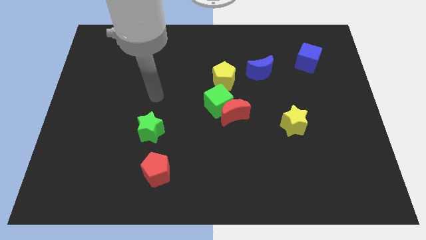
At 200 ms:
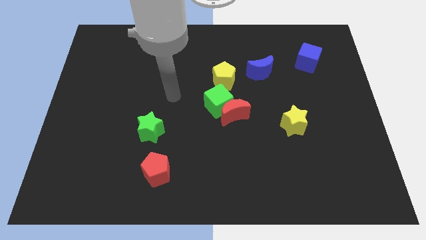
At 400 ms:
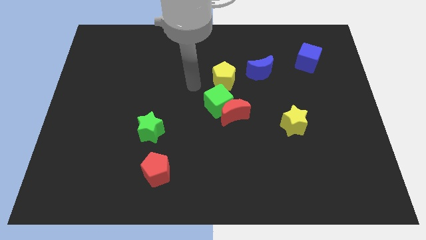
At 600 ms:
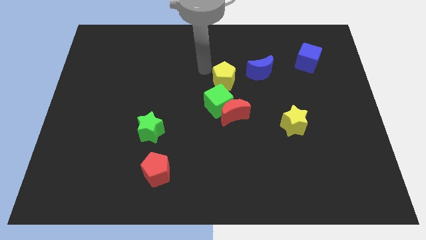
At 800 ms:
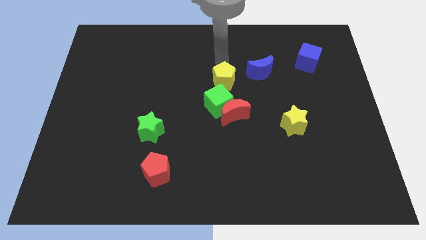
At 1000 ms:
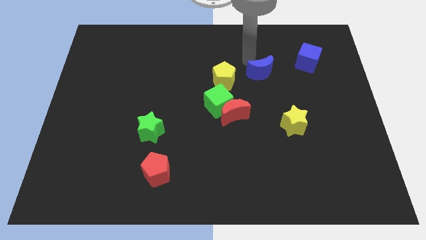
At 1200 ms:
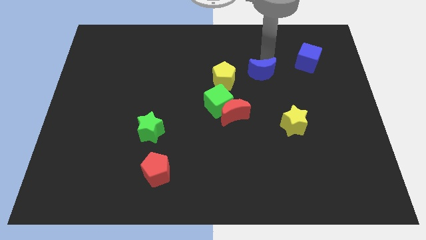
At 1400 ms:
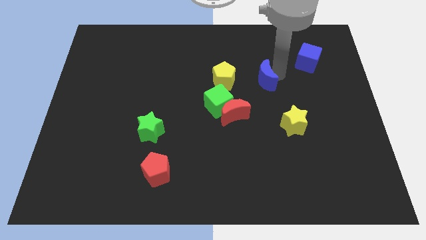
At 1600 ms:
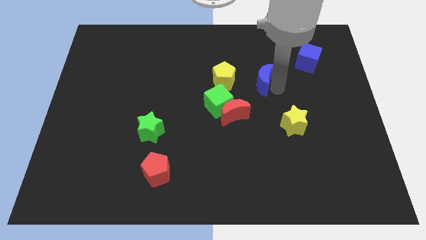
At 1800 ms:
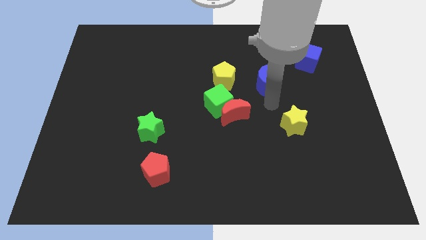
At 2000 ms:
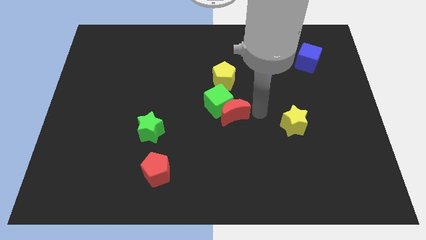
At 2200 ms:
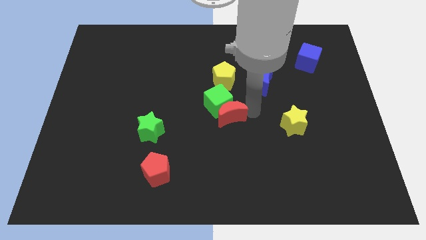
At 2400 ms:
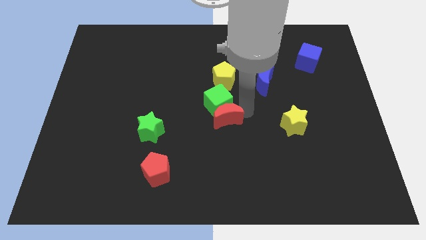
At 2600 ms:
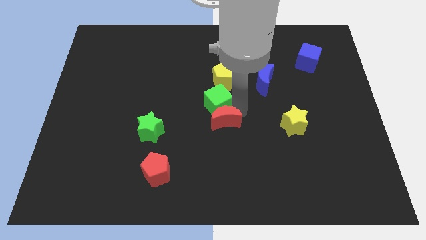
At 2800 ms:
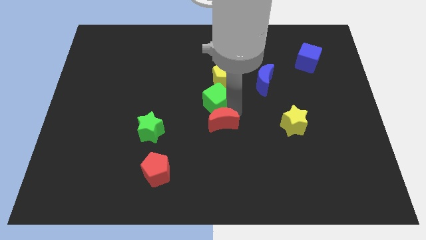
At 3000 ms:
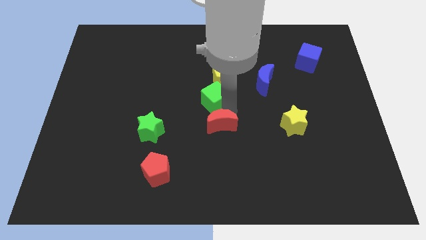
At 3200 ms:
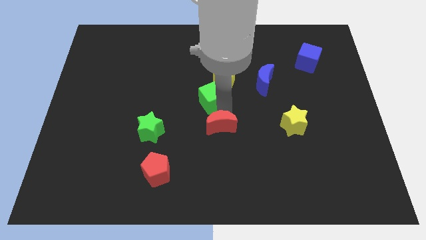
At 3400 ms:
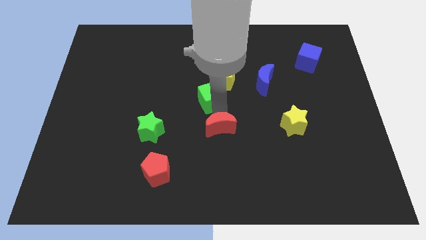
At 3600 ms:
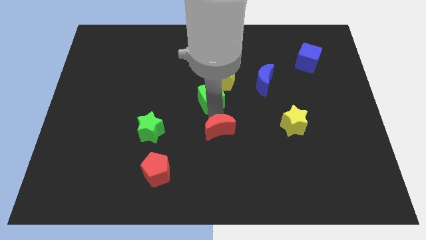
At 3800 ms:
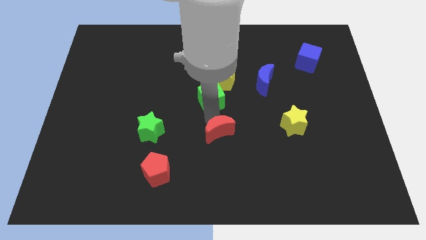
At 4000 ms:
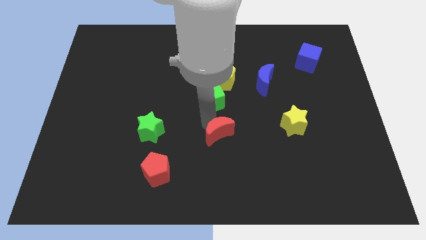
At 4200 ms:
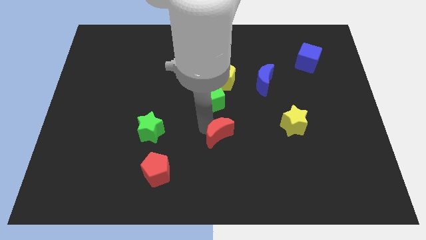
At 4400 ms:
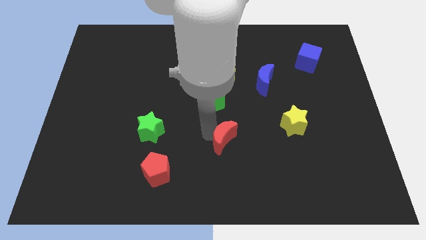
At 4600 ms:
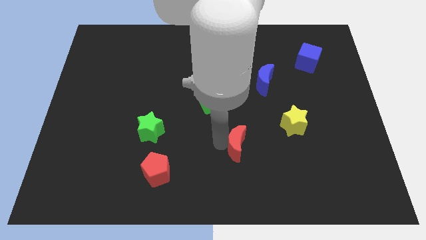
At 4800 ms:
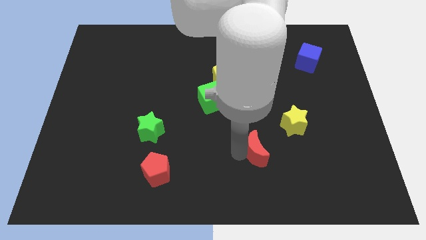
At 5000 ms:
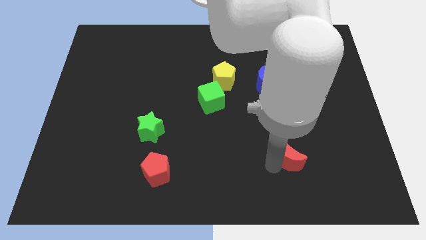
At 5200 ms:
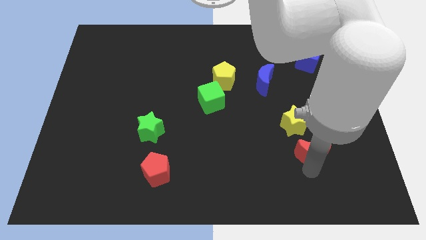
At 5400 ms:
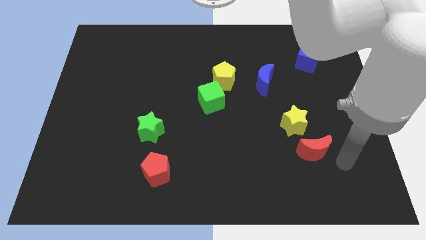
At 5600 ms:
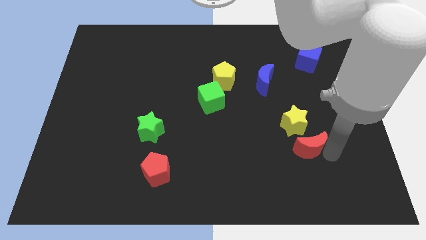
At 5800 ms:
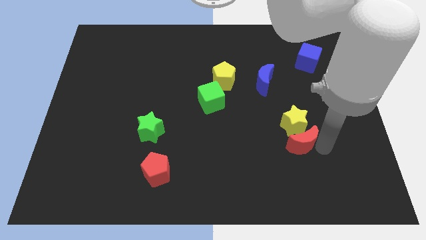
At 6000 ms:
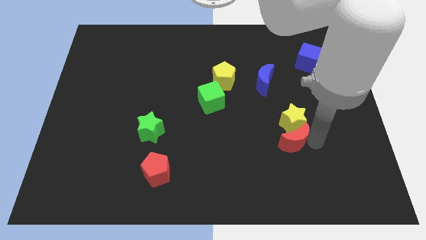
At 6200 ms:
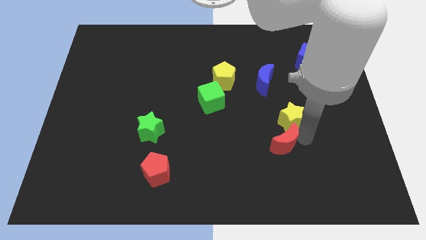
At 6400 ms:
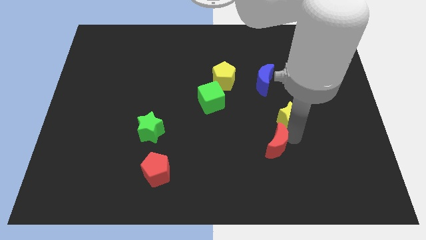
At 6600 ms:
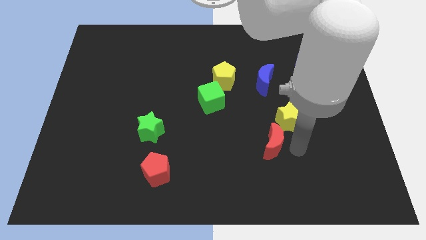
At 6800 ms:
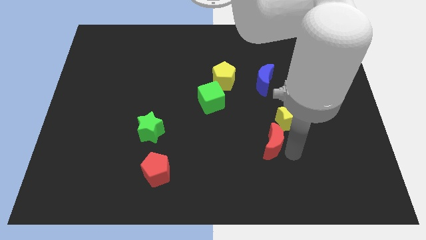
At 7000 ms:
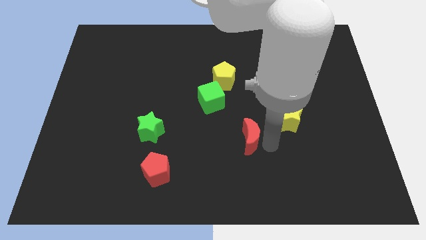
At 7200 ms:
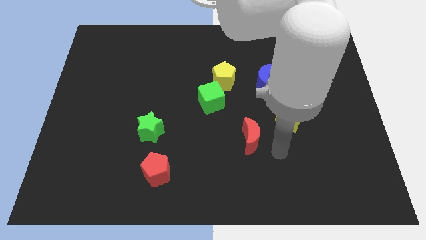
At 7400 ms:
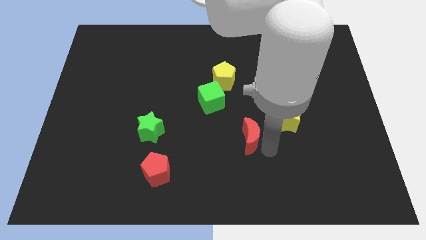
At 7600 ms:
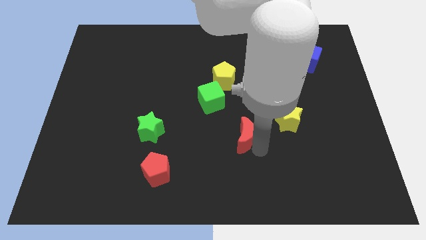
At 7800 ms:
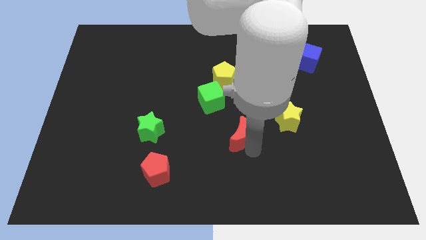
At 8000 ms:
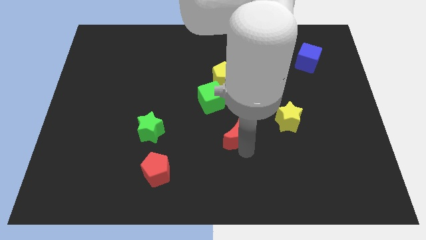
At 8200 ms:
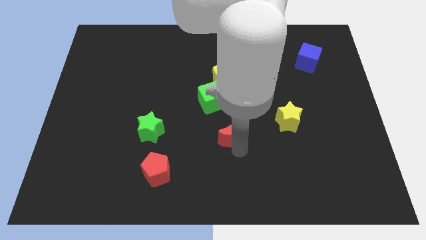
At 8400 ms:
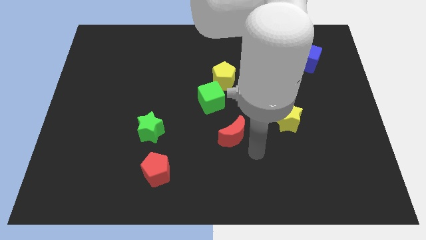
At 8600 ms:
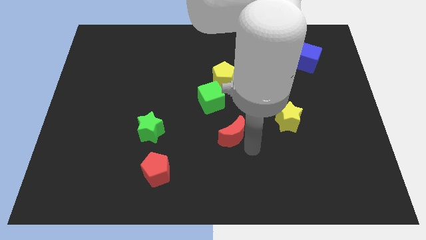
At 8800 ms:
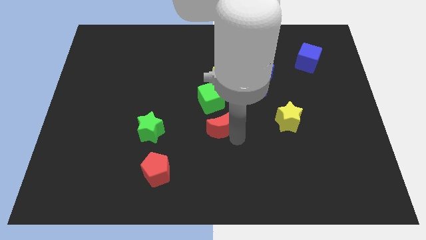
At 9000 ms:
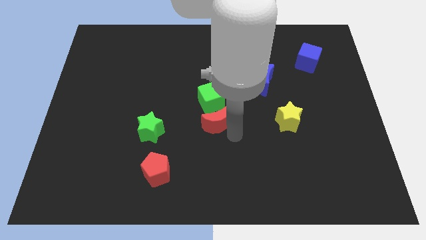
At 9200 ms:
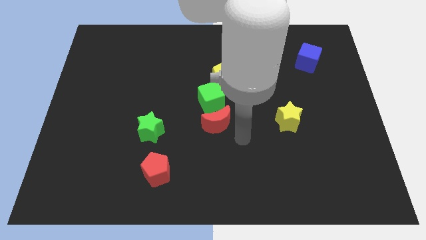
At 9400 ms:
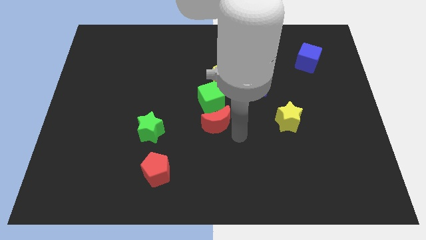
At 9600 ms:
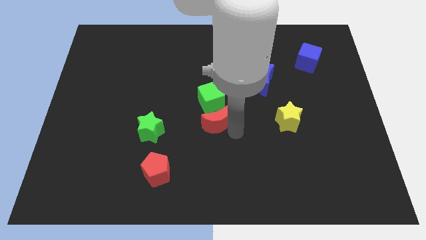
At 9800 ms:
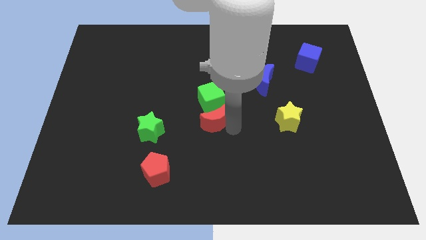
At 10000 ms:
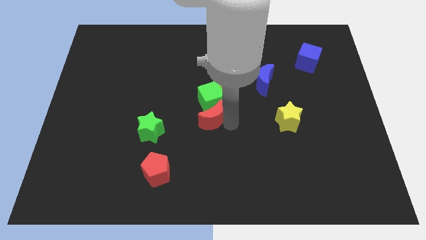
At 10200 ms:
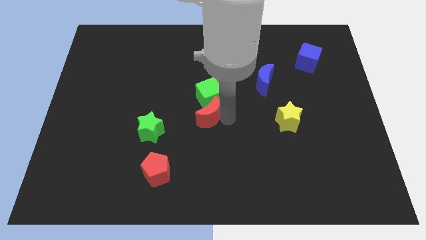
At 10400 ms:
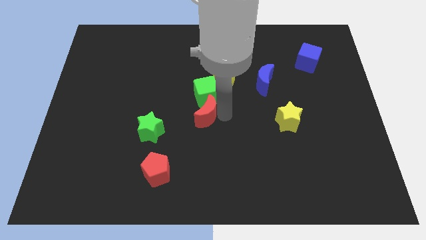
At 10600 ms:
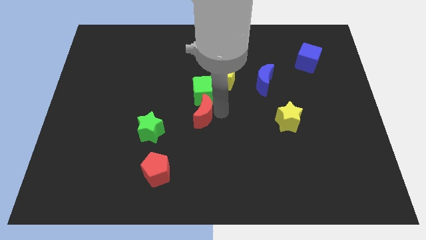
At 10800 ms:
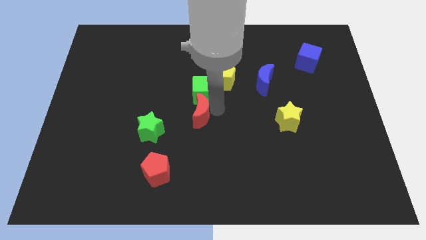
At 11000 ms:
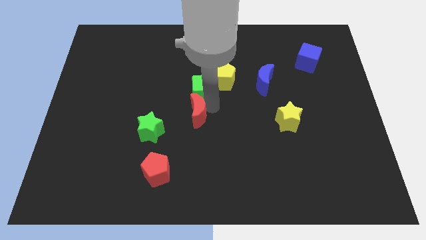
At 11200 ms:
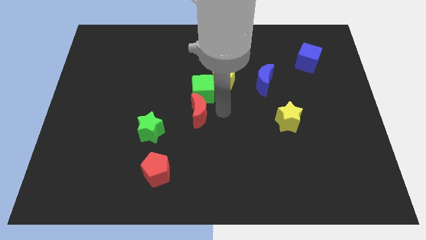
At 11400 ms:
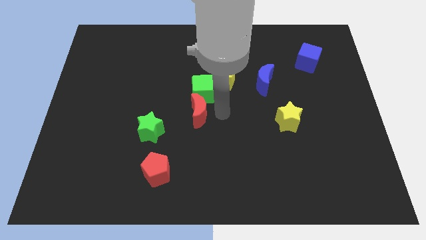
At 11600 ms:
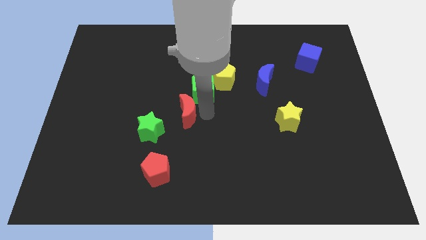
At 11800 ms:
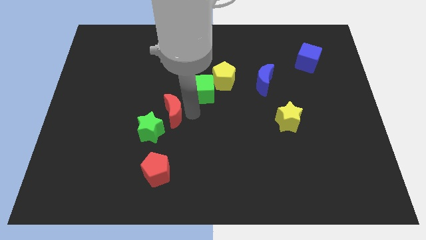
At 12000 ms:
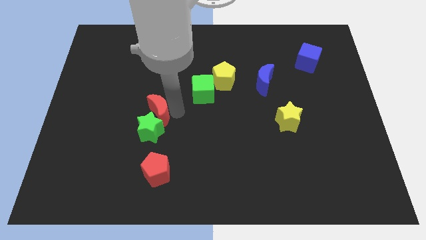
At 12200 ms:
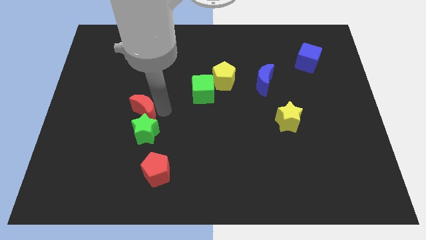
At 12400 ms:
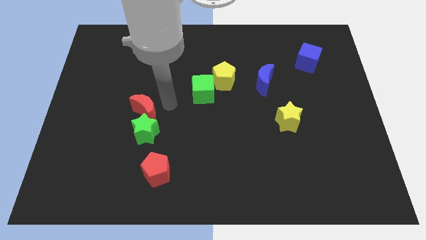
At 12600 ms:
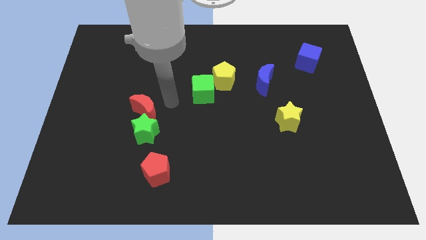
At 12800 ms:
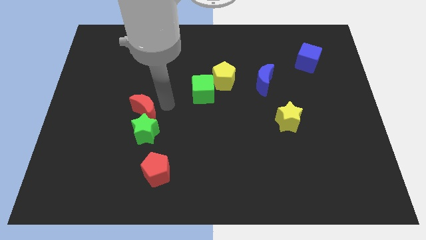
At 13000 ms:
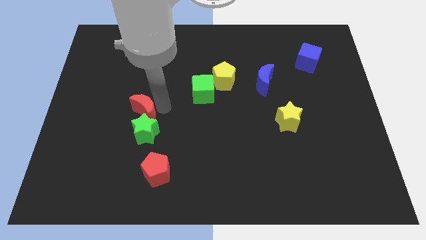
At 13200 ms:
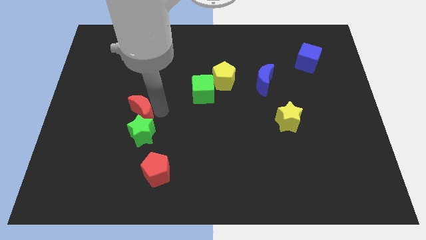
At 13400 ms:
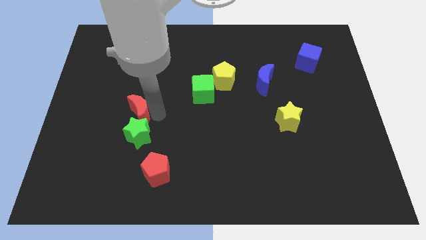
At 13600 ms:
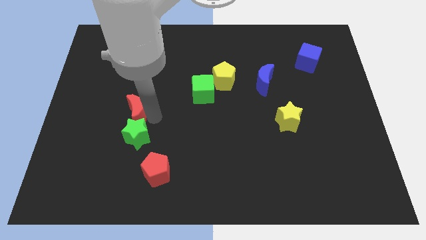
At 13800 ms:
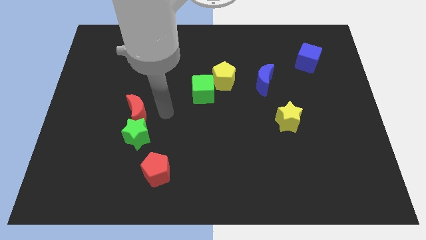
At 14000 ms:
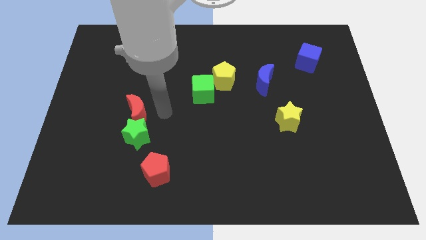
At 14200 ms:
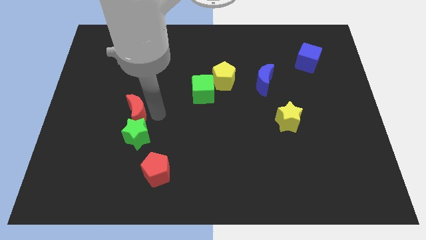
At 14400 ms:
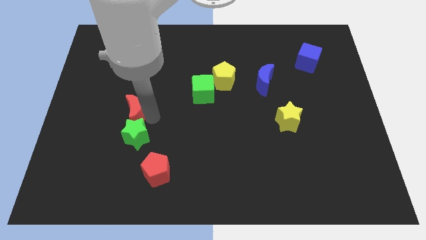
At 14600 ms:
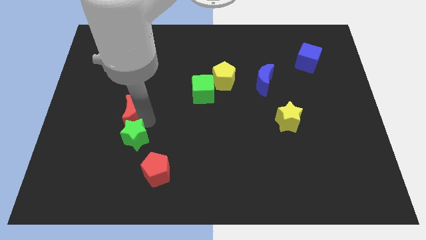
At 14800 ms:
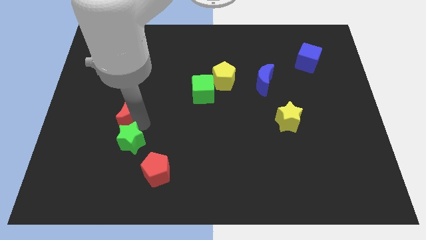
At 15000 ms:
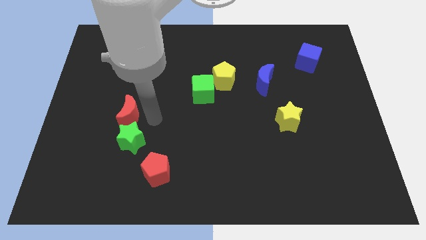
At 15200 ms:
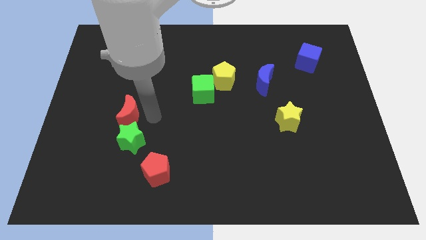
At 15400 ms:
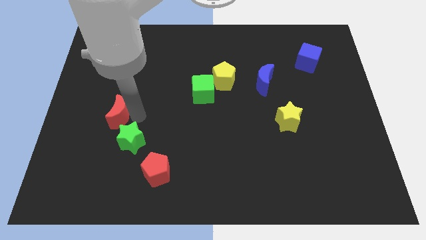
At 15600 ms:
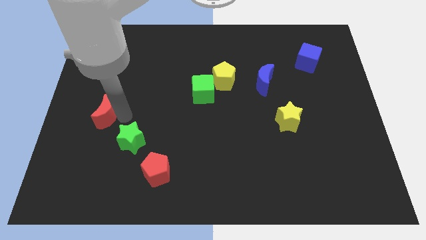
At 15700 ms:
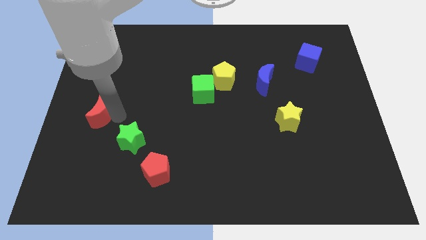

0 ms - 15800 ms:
put the red moon to the center left
